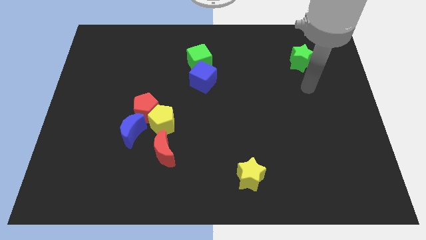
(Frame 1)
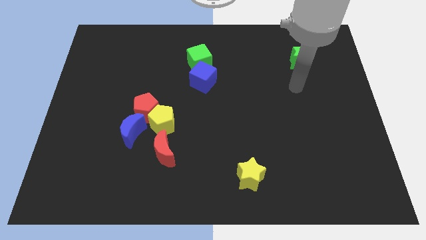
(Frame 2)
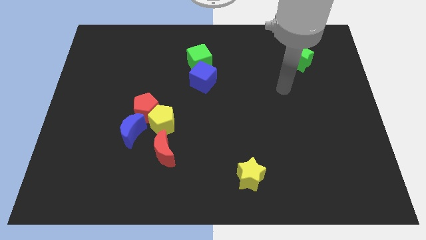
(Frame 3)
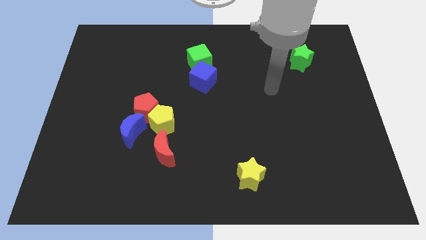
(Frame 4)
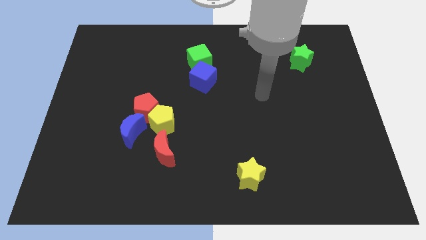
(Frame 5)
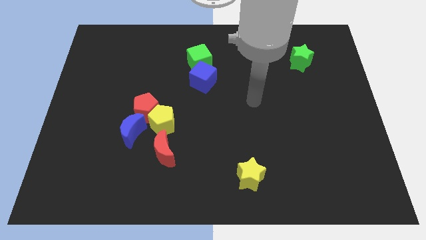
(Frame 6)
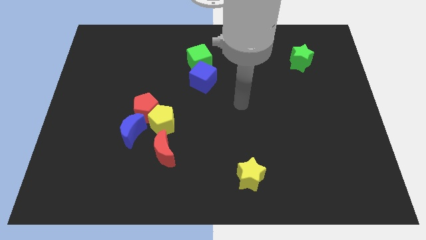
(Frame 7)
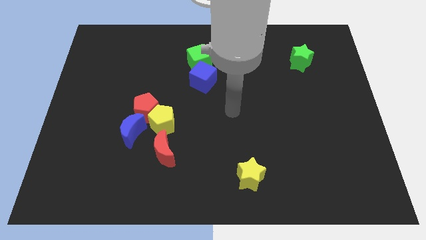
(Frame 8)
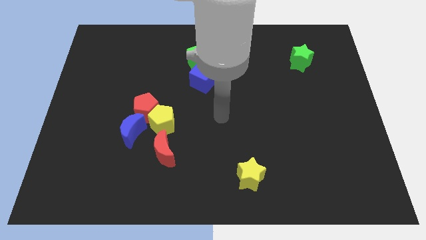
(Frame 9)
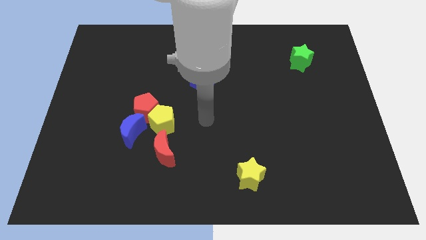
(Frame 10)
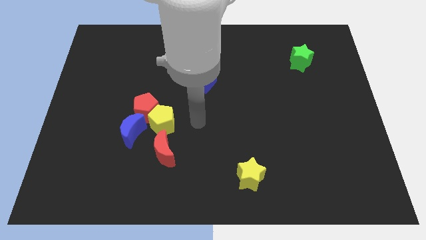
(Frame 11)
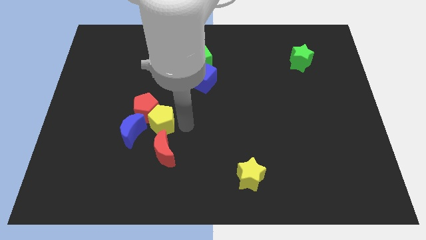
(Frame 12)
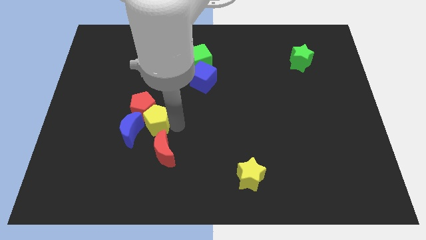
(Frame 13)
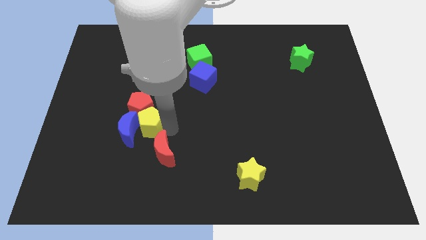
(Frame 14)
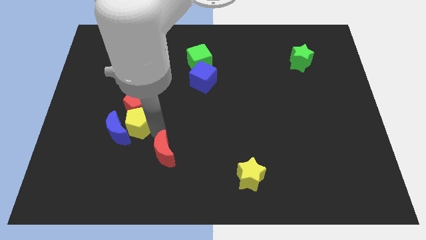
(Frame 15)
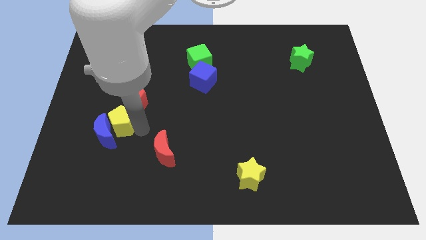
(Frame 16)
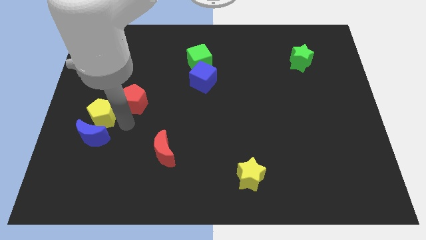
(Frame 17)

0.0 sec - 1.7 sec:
pull the red pentagon apart from the yellow pentagon and blue moon

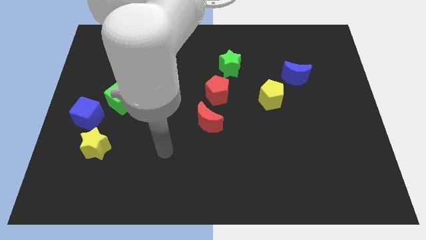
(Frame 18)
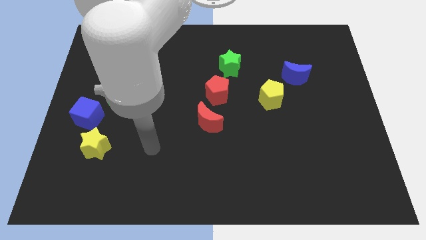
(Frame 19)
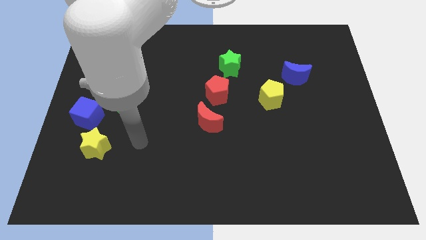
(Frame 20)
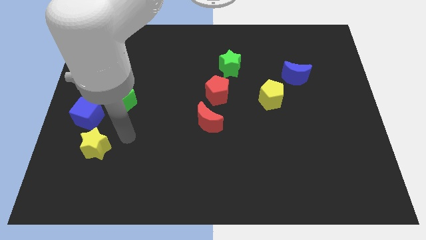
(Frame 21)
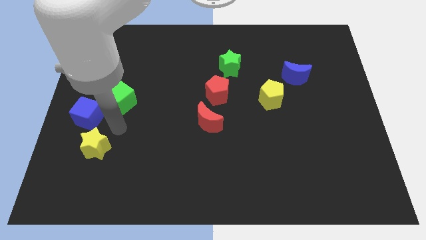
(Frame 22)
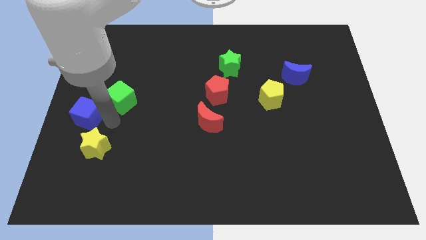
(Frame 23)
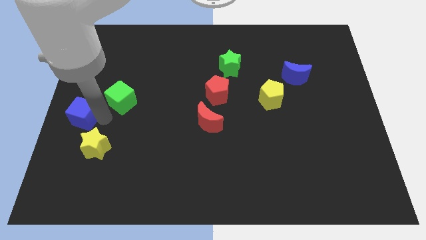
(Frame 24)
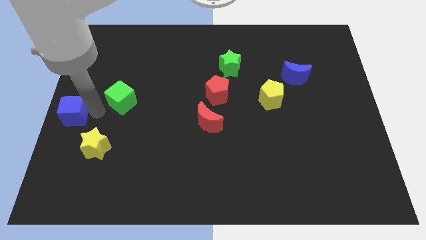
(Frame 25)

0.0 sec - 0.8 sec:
move the green cube away from the blue cube

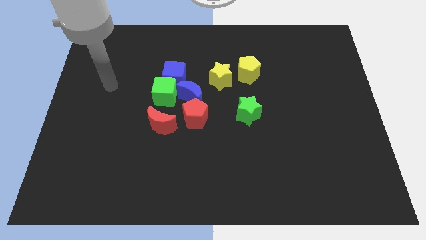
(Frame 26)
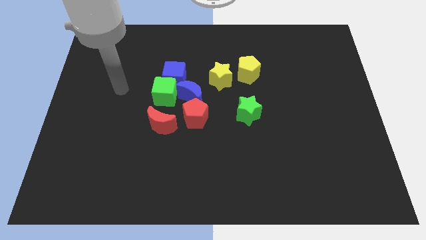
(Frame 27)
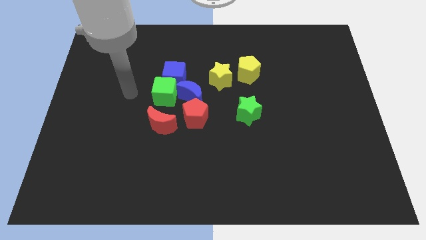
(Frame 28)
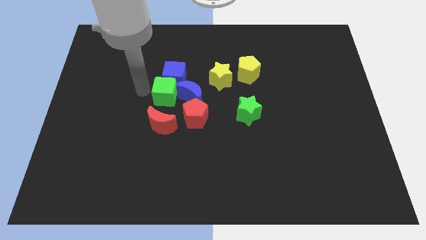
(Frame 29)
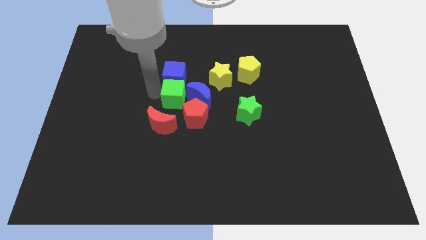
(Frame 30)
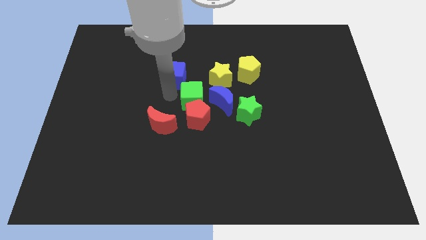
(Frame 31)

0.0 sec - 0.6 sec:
move the blue cube away from the green cube and blue moon

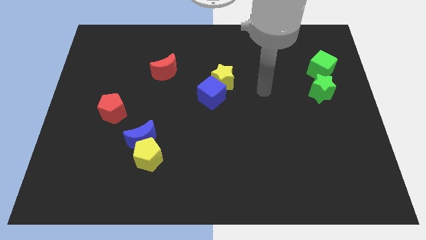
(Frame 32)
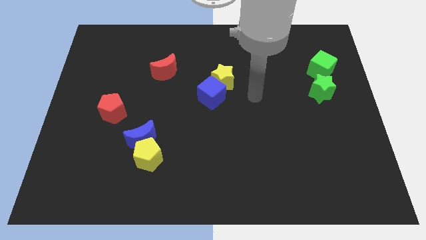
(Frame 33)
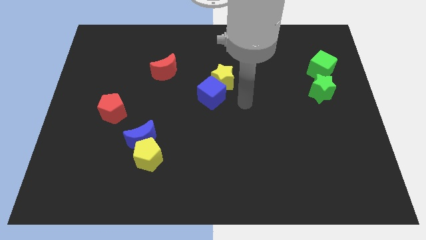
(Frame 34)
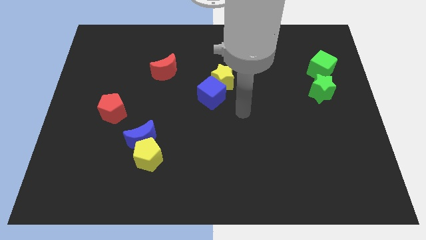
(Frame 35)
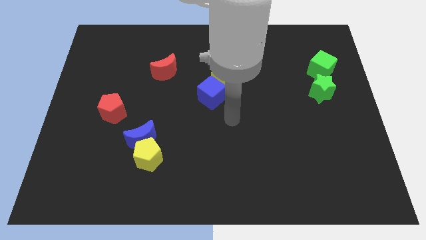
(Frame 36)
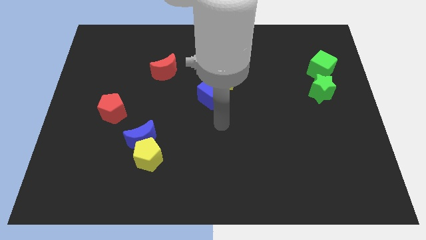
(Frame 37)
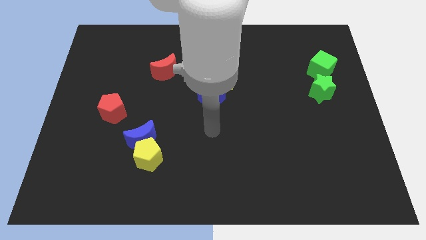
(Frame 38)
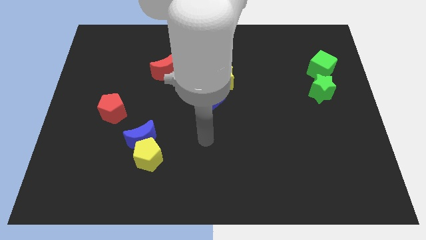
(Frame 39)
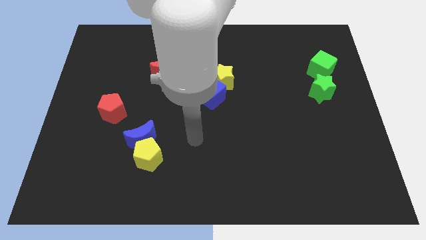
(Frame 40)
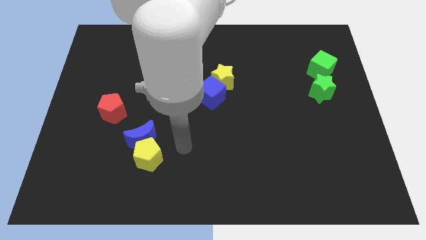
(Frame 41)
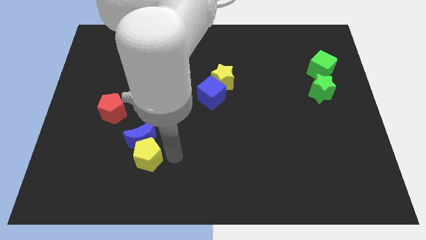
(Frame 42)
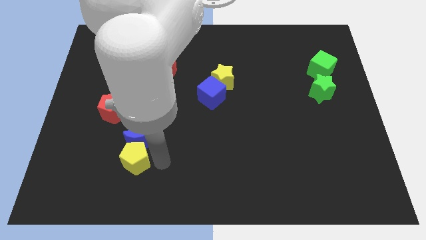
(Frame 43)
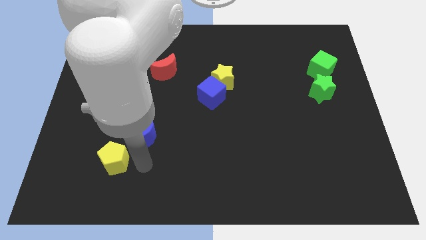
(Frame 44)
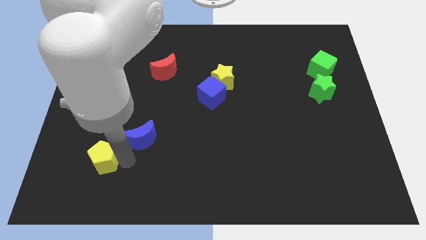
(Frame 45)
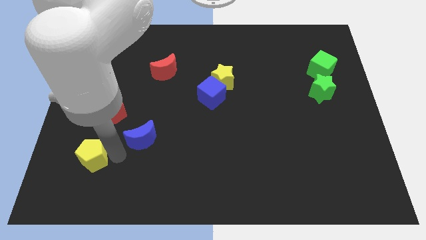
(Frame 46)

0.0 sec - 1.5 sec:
separate the blue moon from the yellow pentagon

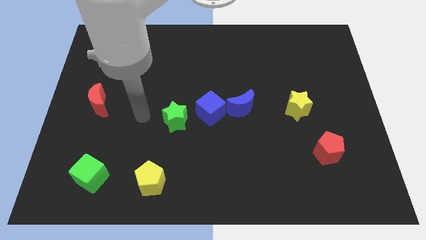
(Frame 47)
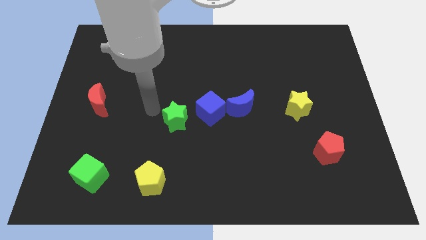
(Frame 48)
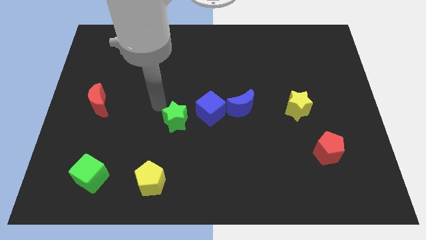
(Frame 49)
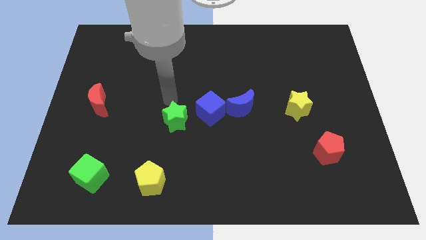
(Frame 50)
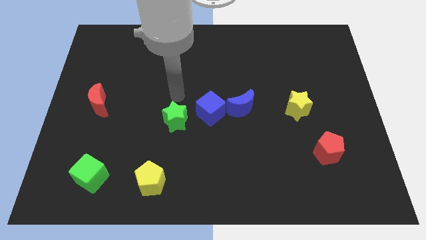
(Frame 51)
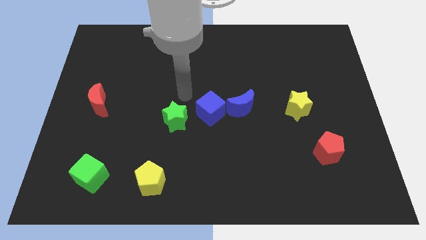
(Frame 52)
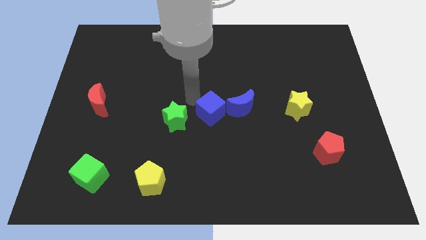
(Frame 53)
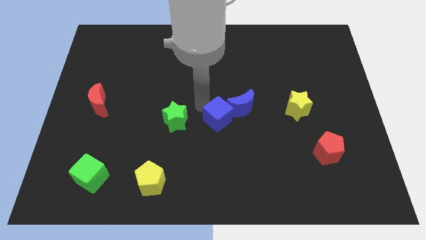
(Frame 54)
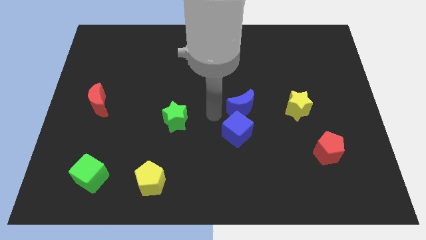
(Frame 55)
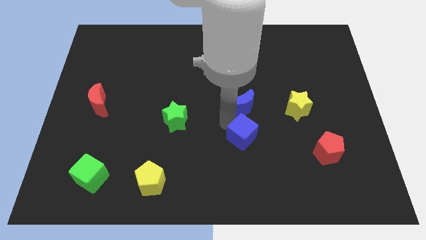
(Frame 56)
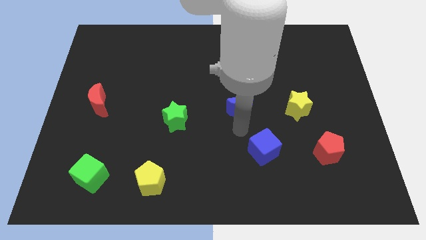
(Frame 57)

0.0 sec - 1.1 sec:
separate the blue moon from the blue cube

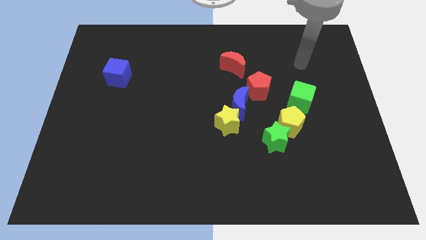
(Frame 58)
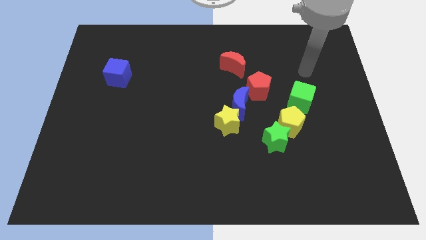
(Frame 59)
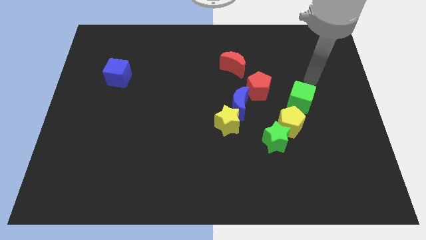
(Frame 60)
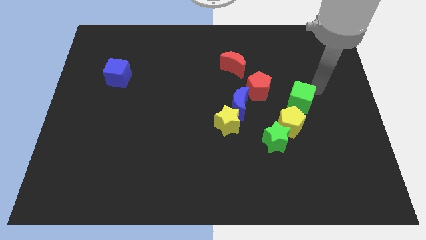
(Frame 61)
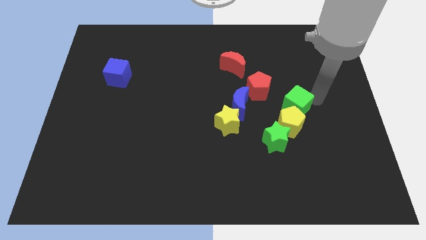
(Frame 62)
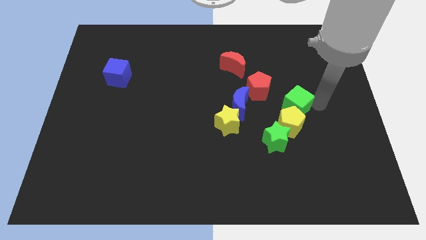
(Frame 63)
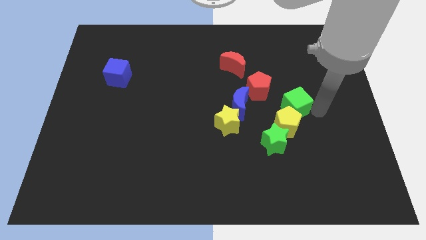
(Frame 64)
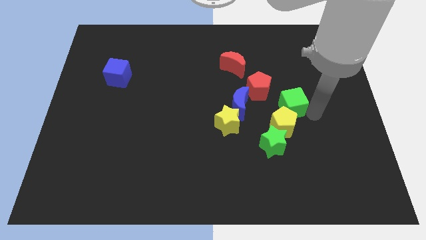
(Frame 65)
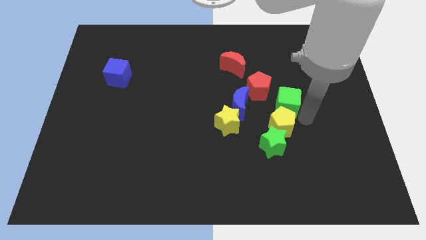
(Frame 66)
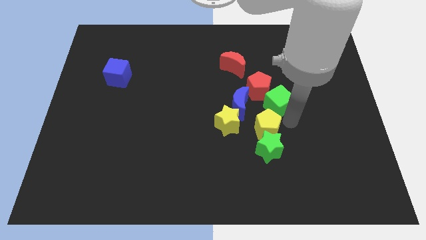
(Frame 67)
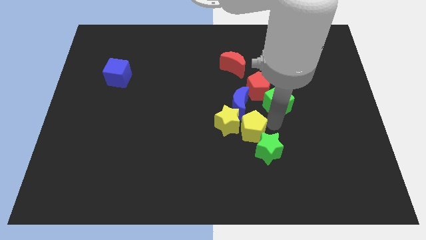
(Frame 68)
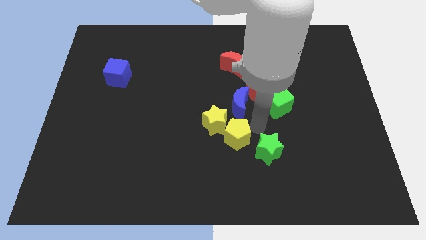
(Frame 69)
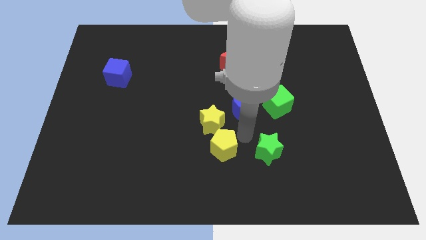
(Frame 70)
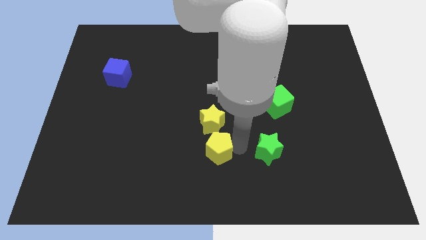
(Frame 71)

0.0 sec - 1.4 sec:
pull the green star apart from the yellow pentagon

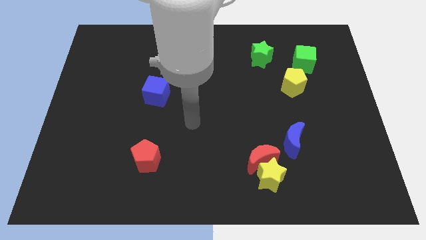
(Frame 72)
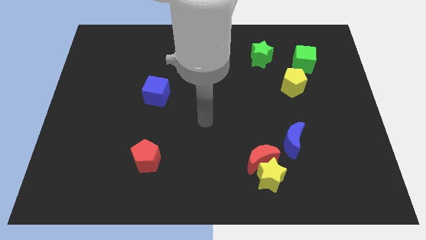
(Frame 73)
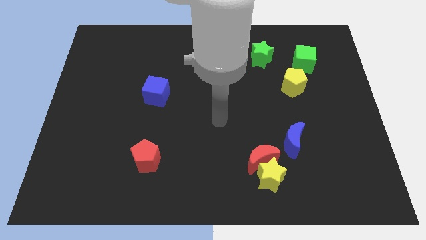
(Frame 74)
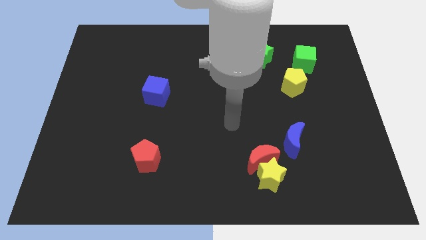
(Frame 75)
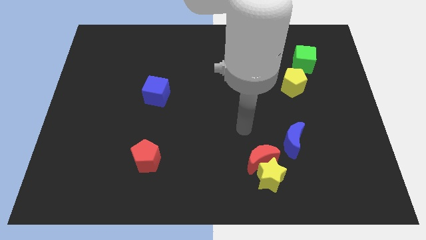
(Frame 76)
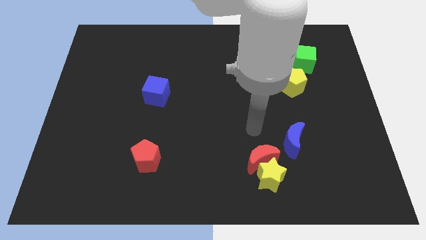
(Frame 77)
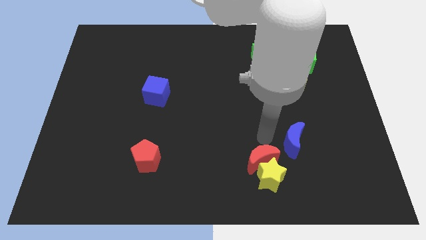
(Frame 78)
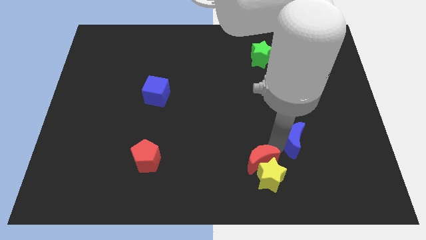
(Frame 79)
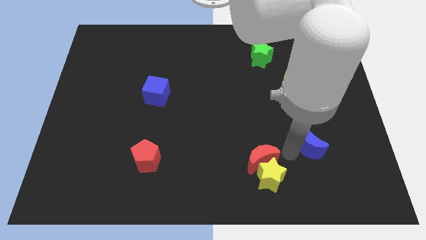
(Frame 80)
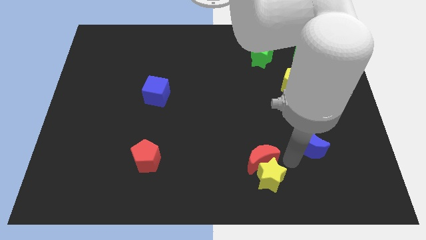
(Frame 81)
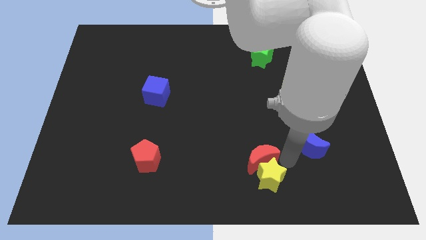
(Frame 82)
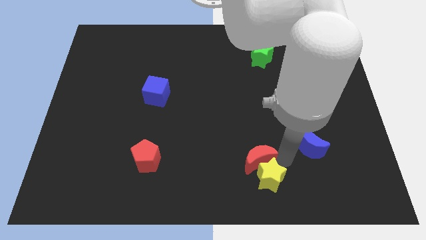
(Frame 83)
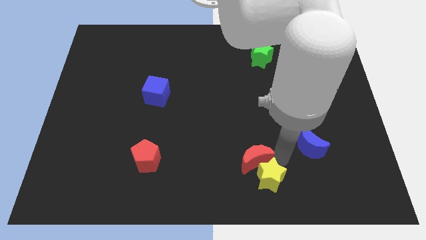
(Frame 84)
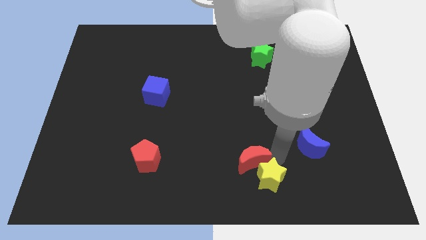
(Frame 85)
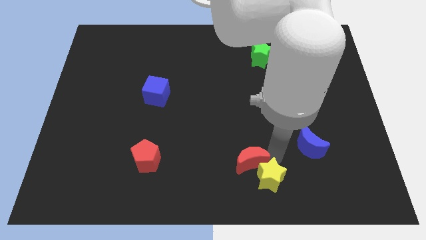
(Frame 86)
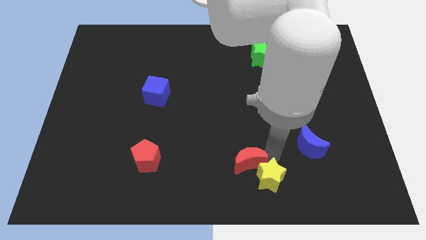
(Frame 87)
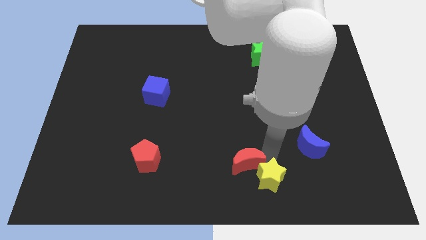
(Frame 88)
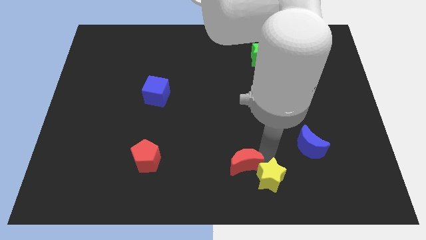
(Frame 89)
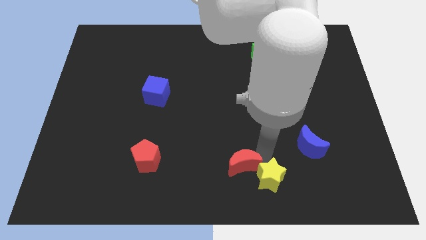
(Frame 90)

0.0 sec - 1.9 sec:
pull the red moon apart from the yellow star and blue moon

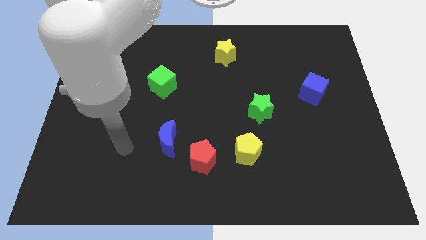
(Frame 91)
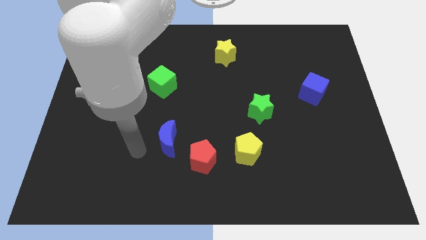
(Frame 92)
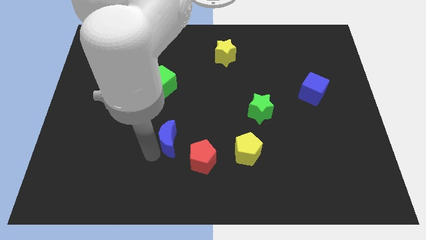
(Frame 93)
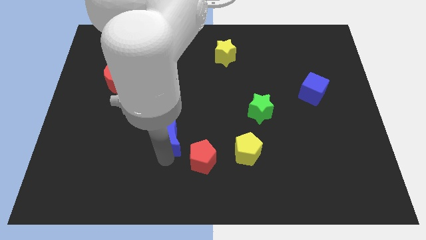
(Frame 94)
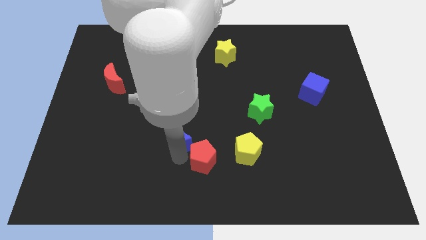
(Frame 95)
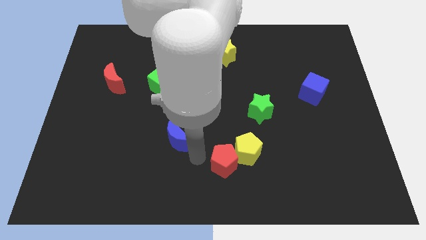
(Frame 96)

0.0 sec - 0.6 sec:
move the blue moon away from the red pentagon
